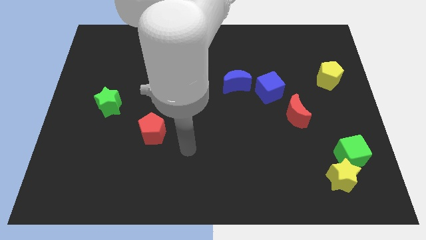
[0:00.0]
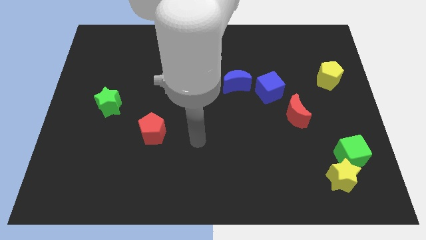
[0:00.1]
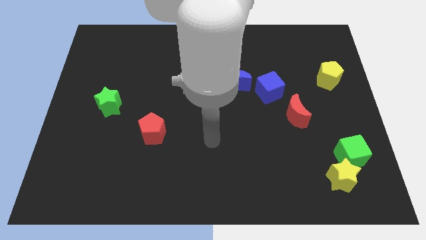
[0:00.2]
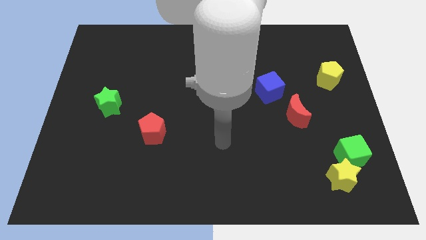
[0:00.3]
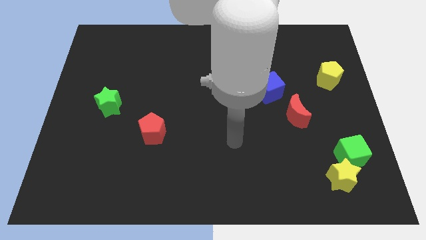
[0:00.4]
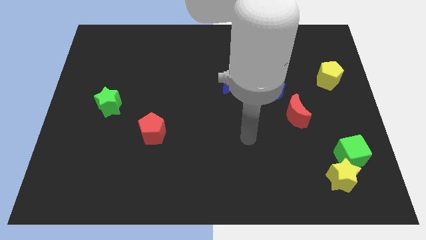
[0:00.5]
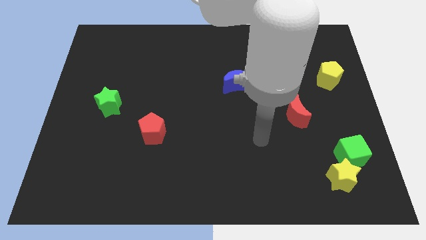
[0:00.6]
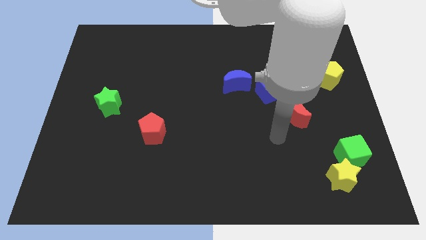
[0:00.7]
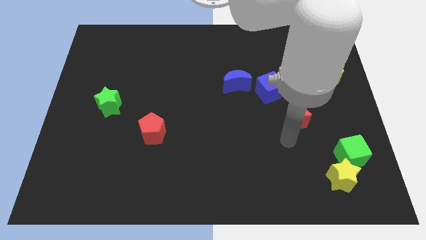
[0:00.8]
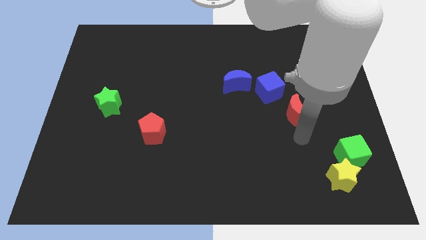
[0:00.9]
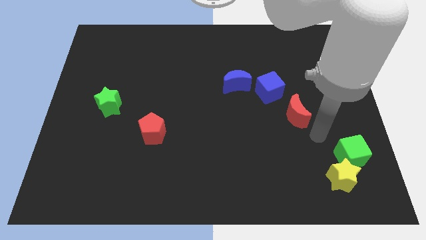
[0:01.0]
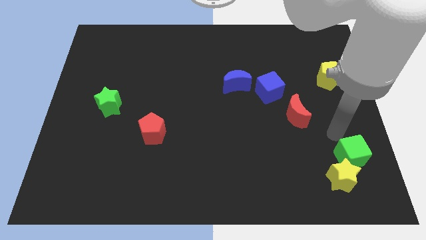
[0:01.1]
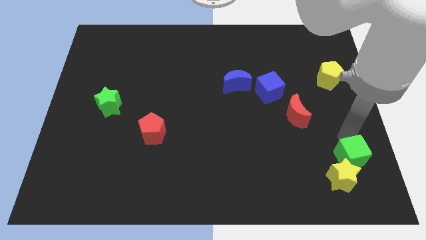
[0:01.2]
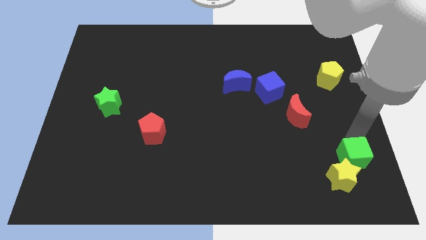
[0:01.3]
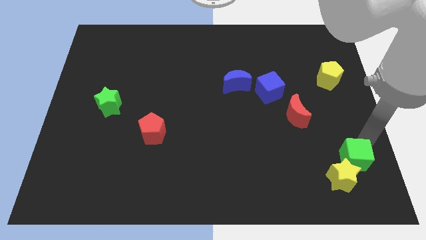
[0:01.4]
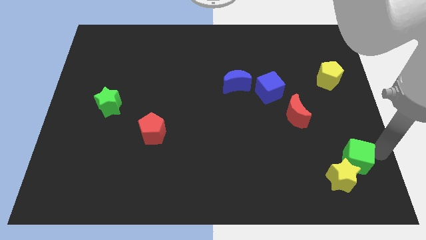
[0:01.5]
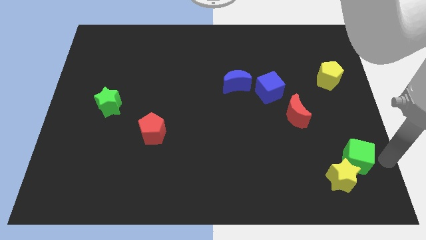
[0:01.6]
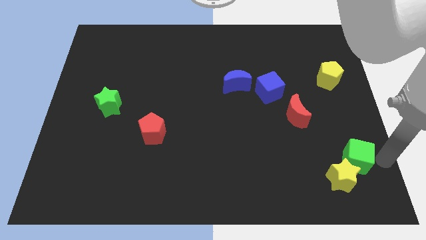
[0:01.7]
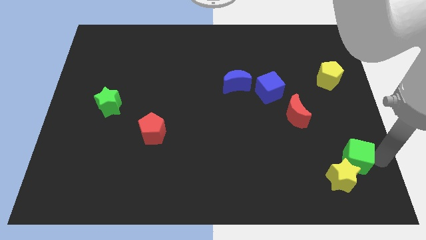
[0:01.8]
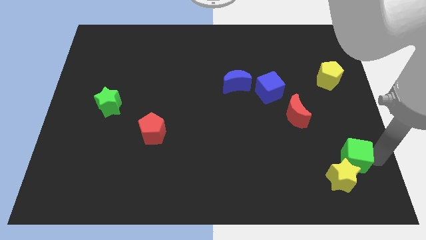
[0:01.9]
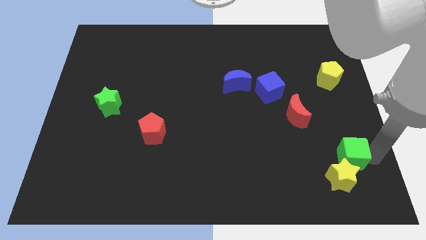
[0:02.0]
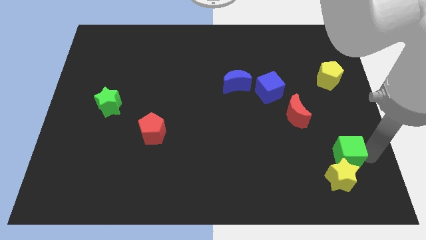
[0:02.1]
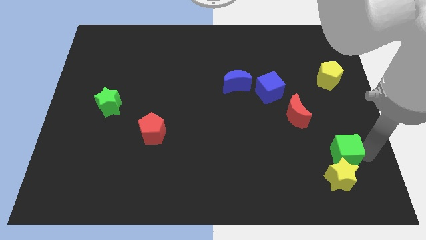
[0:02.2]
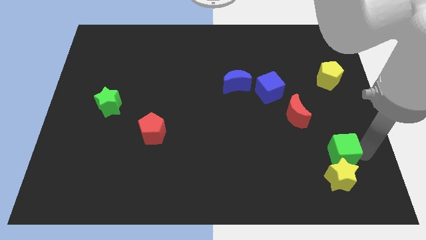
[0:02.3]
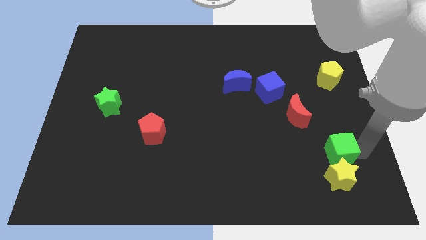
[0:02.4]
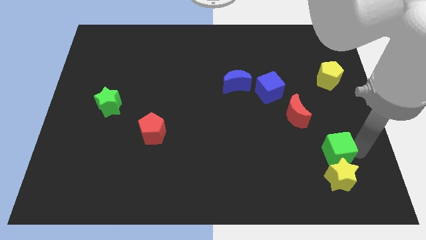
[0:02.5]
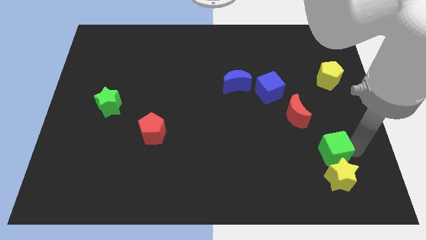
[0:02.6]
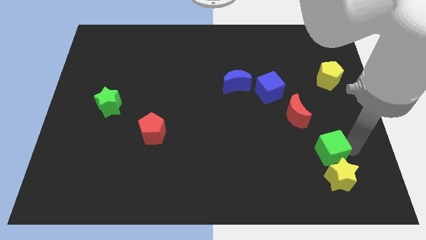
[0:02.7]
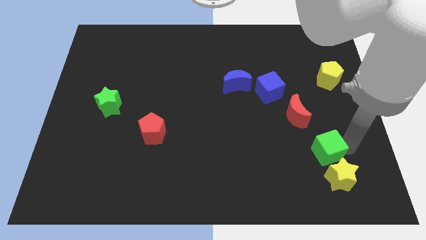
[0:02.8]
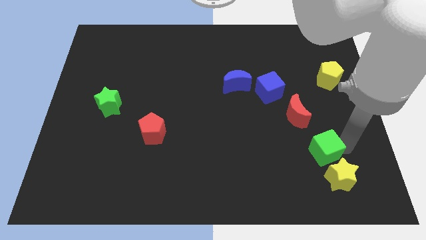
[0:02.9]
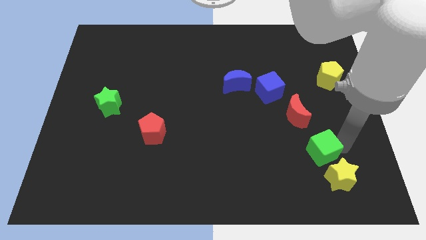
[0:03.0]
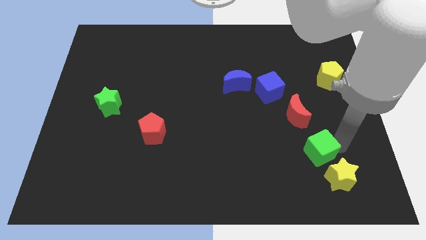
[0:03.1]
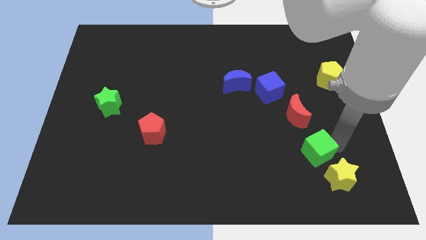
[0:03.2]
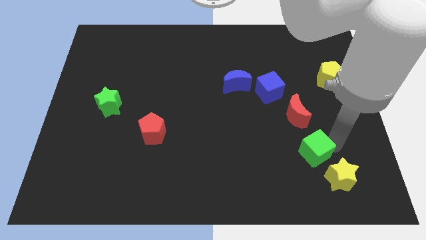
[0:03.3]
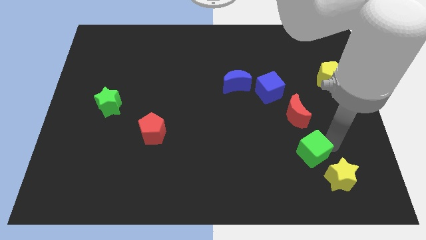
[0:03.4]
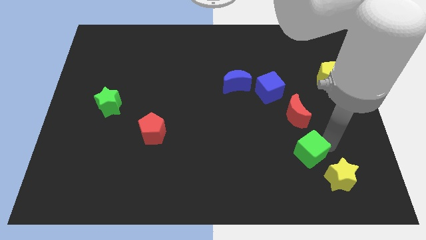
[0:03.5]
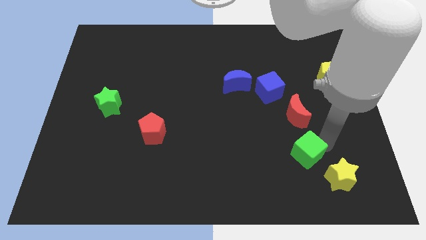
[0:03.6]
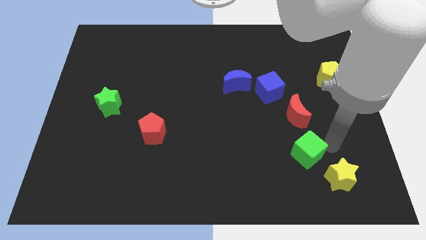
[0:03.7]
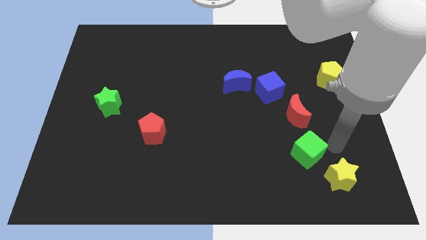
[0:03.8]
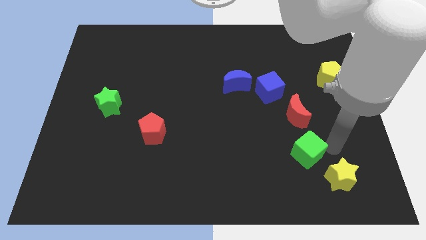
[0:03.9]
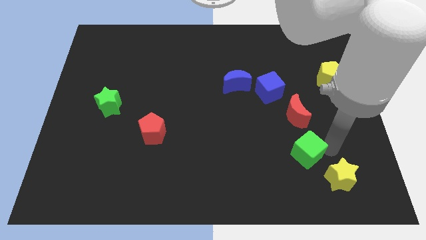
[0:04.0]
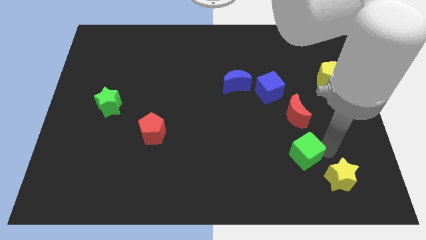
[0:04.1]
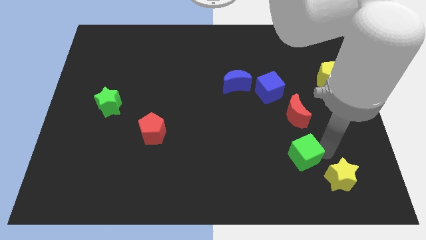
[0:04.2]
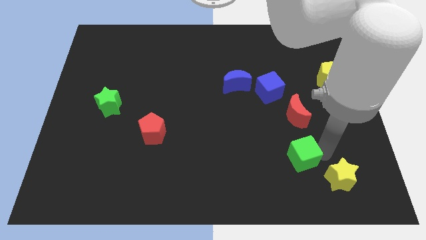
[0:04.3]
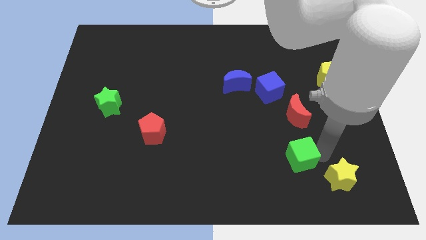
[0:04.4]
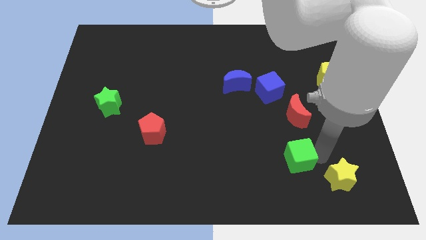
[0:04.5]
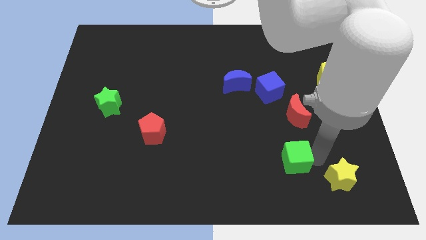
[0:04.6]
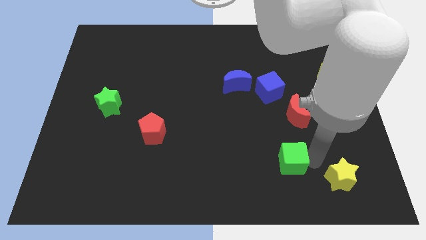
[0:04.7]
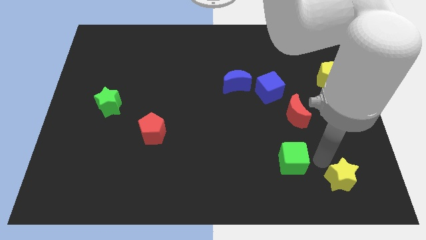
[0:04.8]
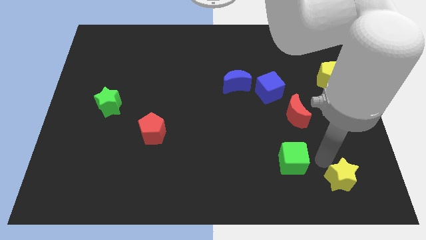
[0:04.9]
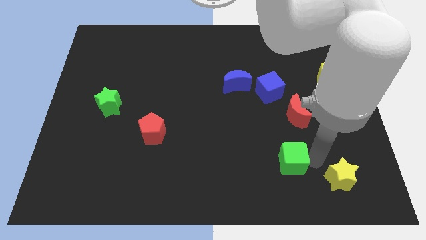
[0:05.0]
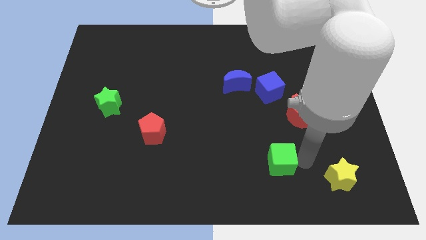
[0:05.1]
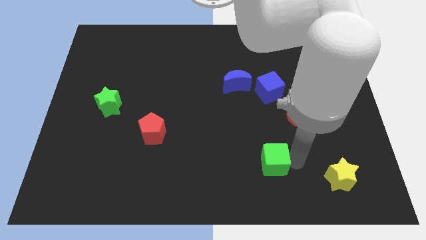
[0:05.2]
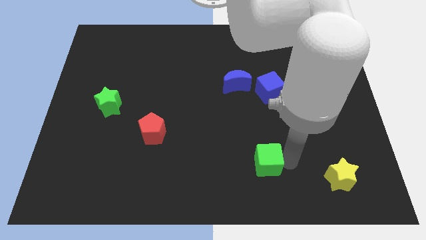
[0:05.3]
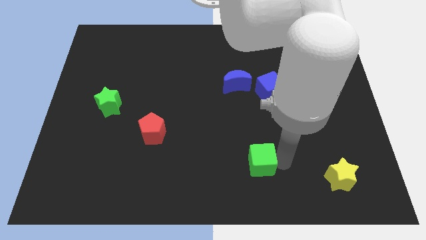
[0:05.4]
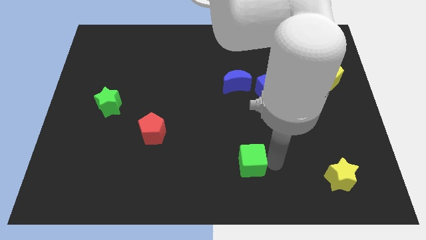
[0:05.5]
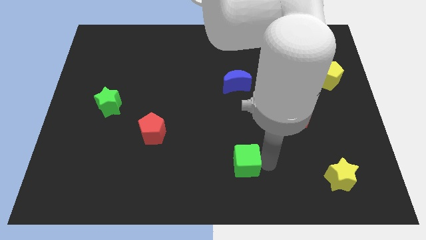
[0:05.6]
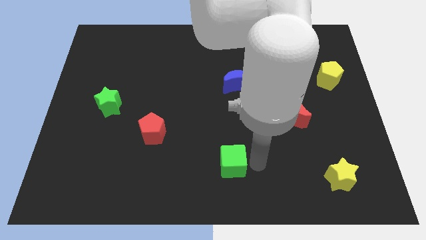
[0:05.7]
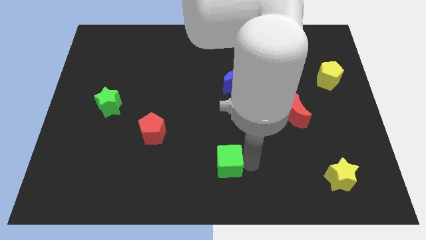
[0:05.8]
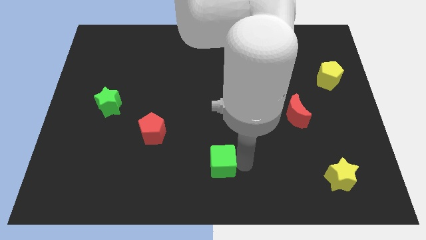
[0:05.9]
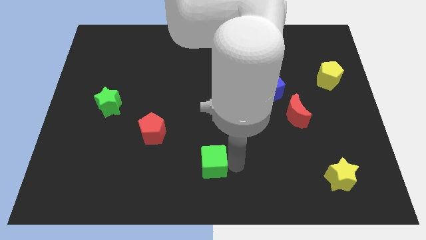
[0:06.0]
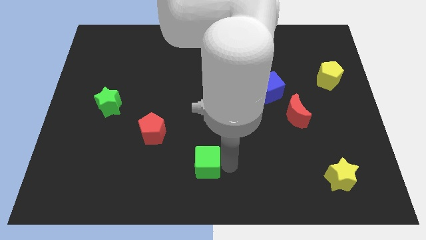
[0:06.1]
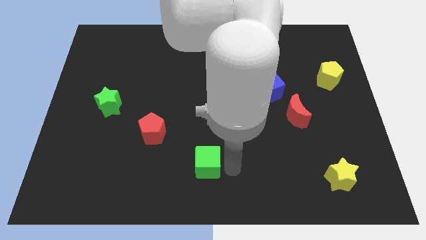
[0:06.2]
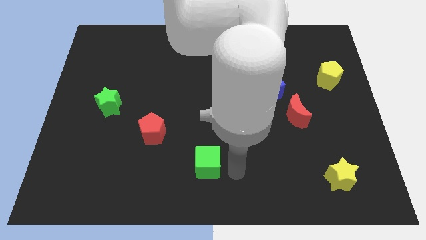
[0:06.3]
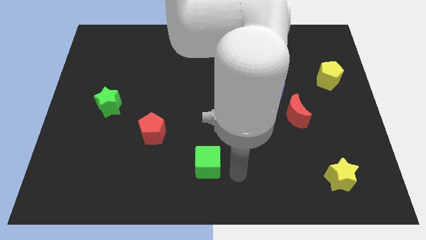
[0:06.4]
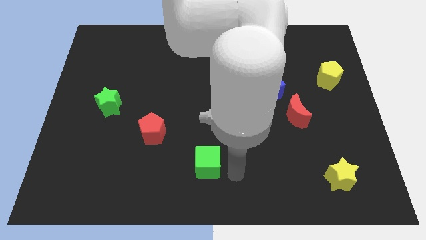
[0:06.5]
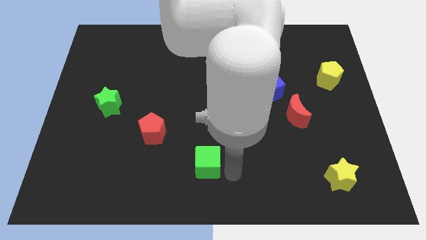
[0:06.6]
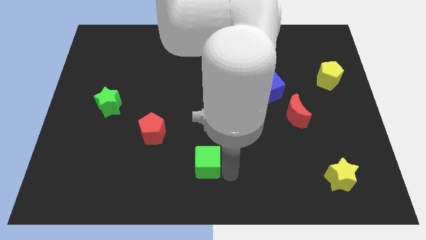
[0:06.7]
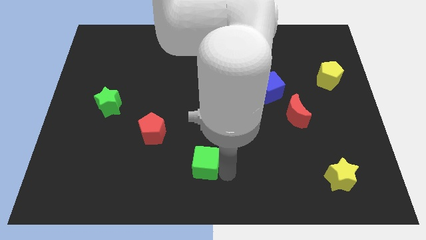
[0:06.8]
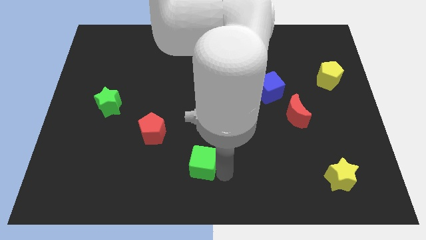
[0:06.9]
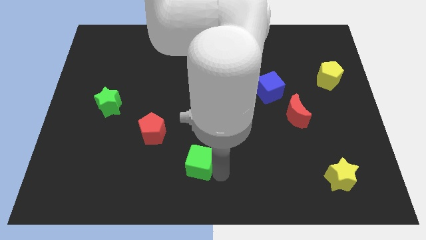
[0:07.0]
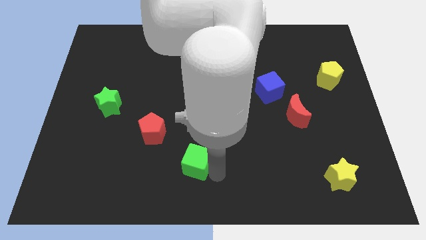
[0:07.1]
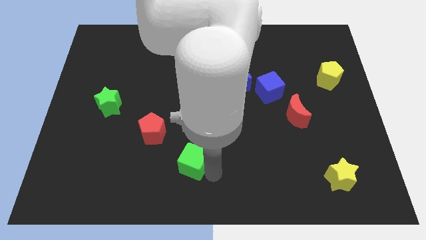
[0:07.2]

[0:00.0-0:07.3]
slide the green cube to the bottom right of the red pentagon

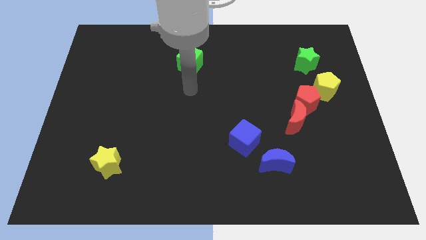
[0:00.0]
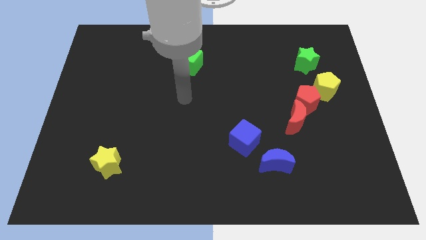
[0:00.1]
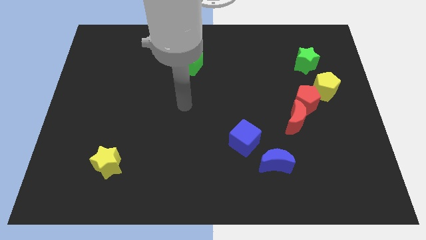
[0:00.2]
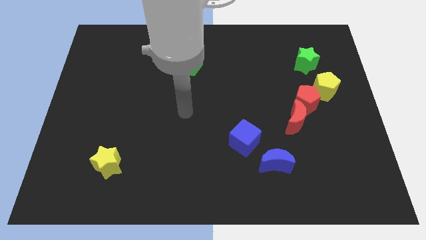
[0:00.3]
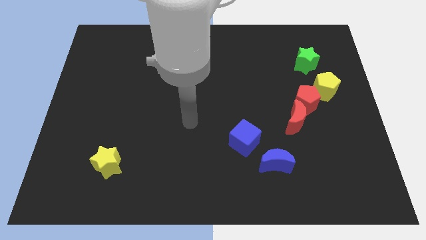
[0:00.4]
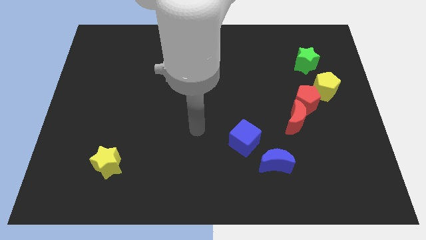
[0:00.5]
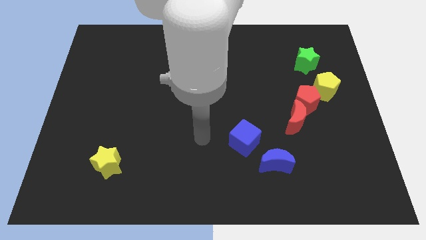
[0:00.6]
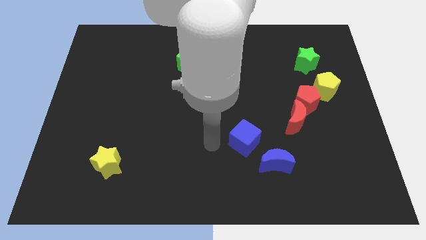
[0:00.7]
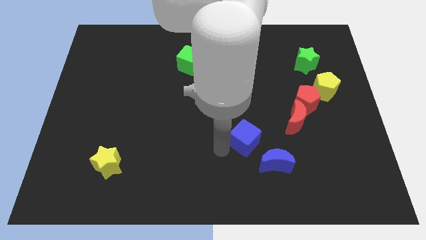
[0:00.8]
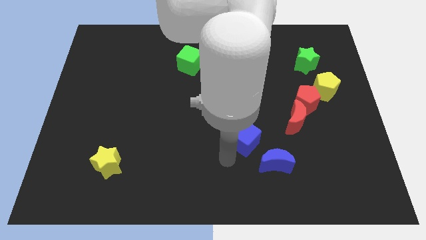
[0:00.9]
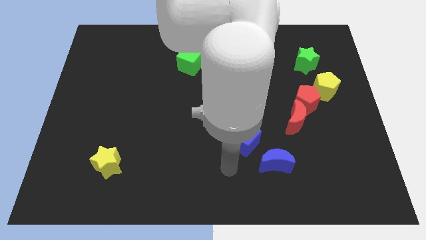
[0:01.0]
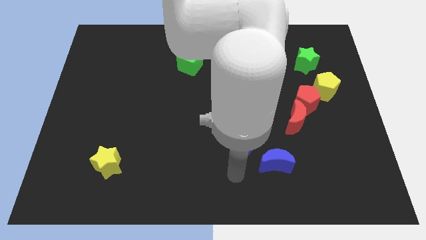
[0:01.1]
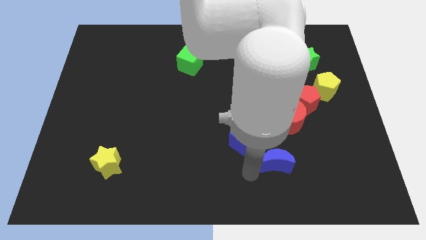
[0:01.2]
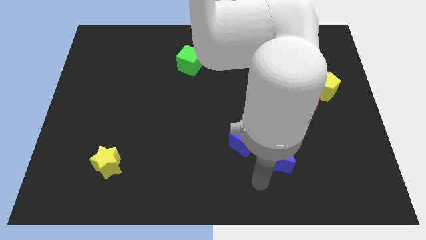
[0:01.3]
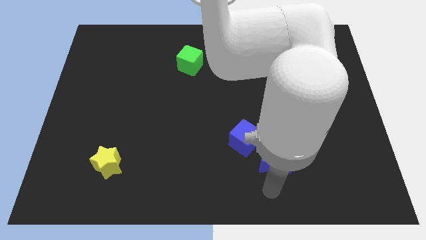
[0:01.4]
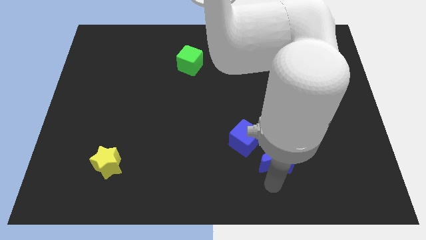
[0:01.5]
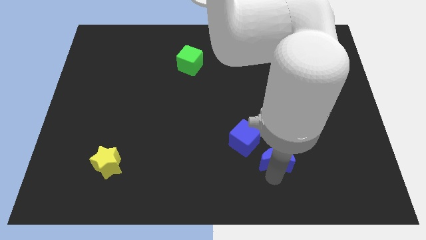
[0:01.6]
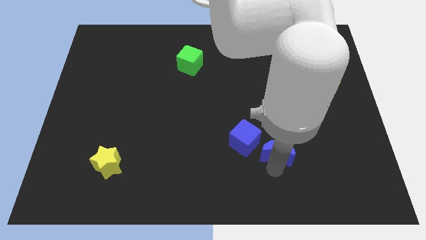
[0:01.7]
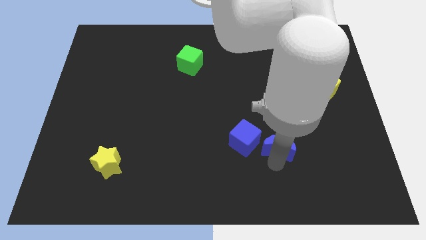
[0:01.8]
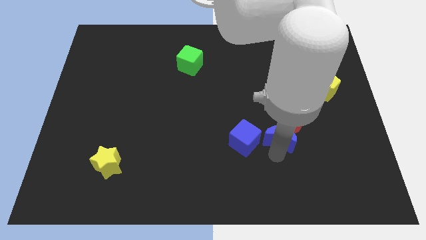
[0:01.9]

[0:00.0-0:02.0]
push the blue moon diagonally down and to the left of the red pentagon
